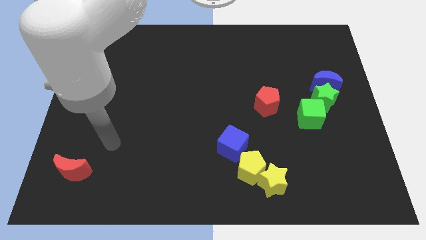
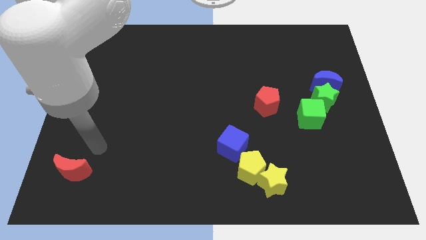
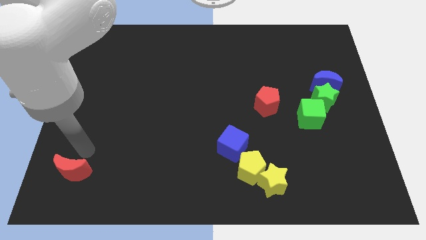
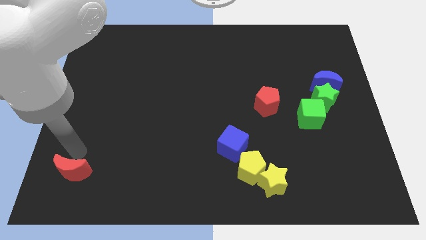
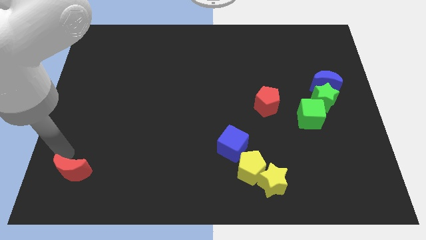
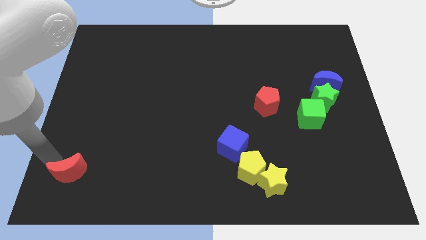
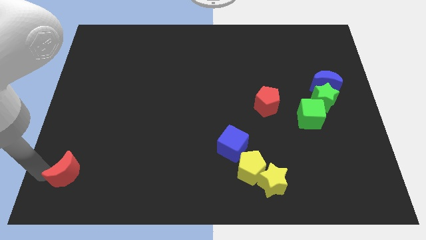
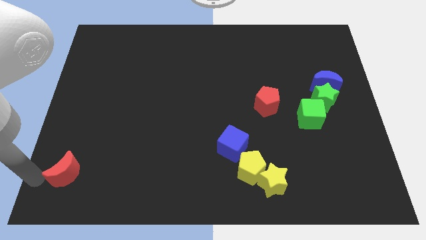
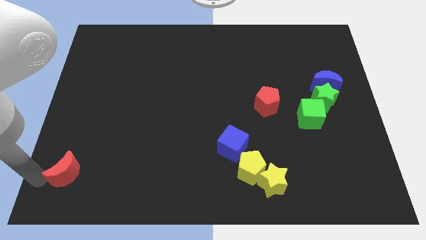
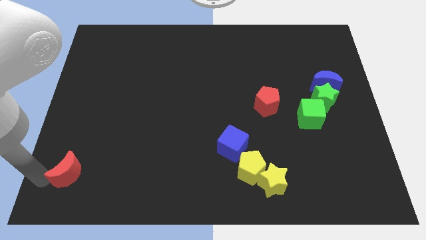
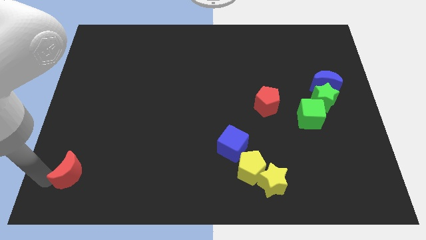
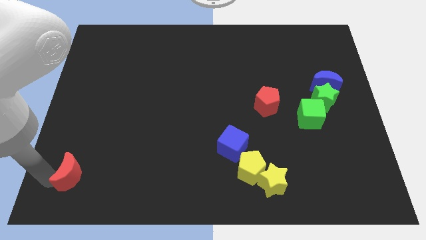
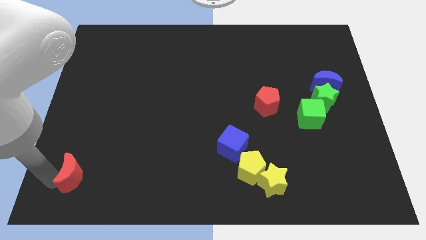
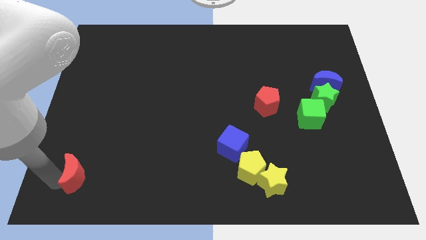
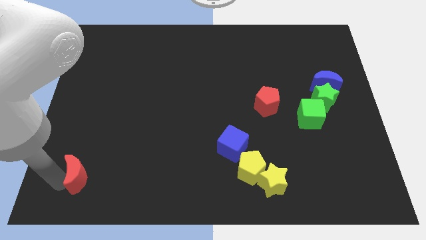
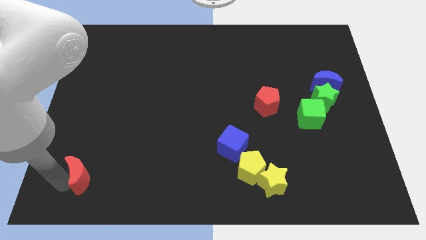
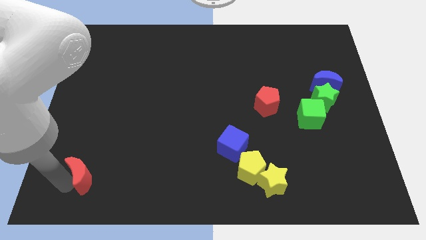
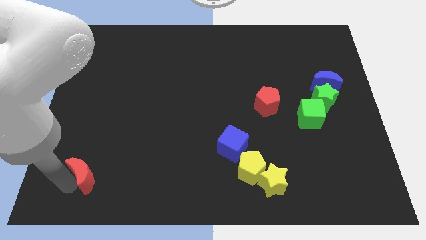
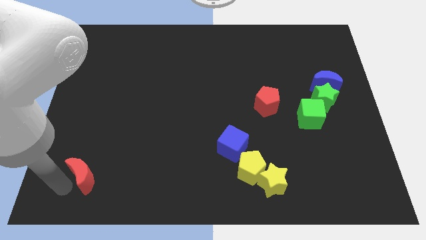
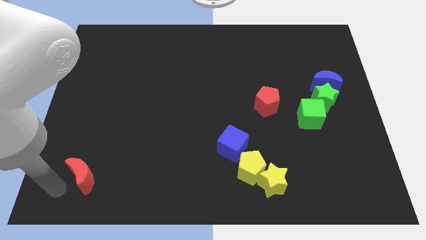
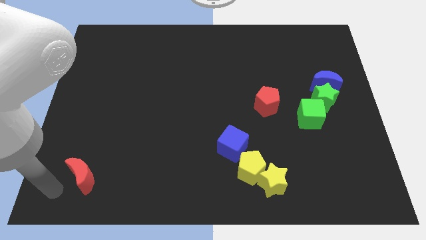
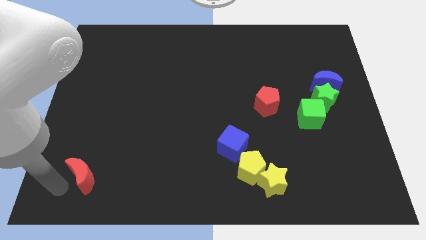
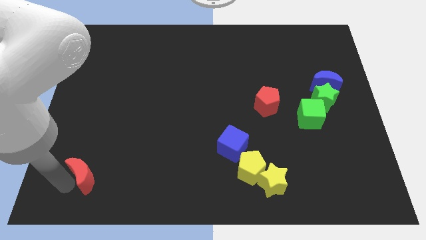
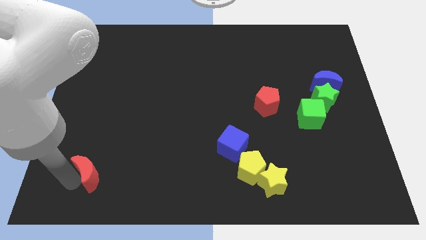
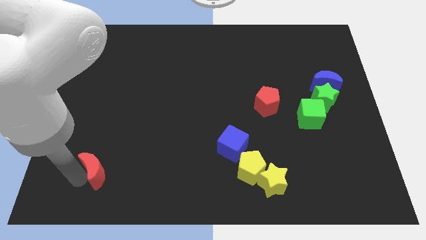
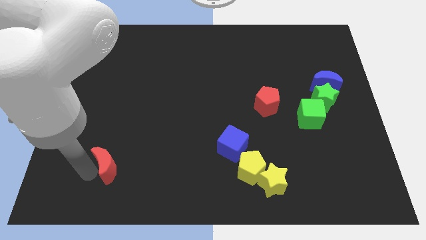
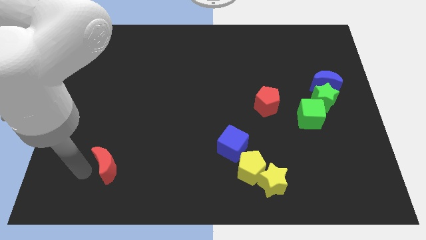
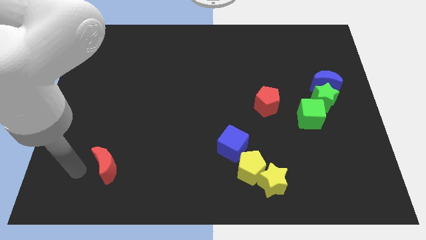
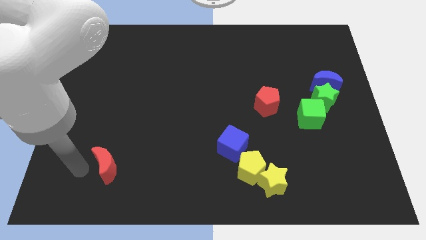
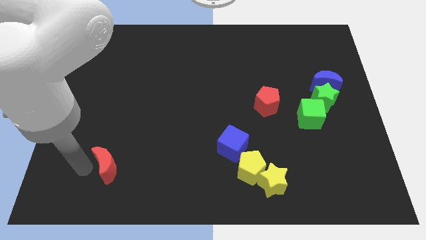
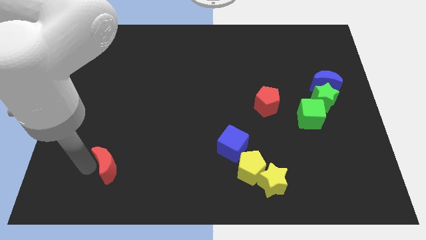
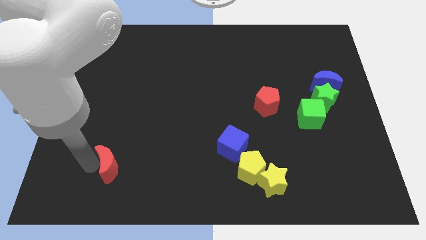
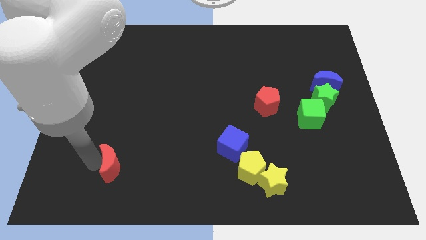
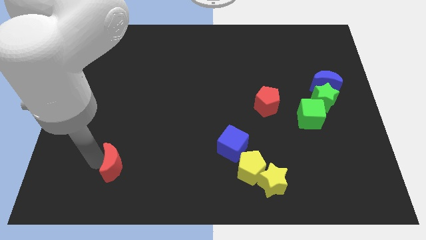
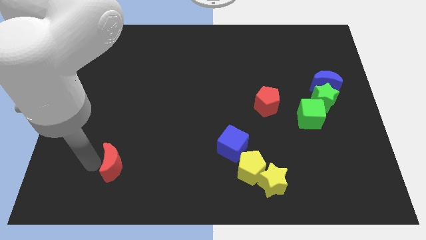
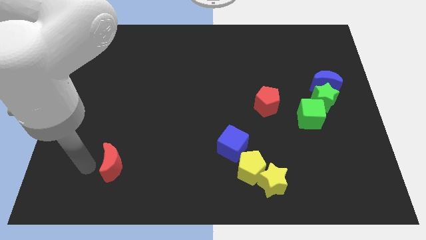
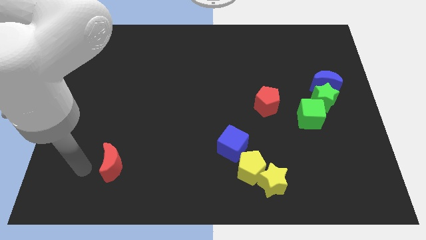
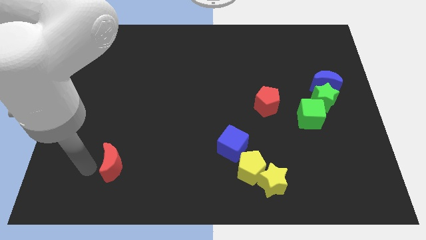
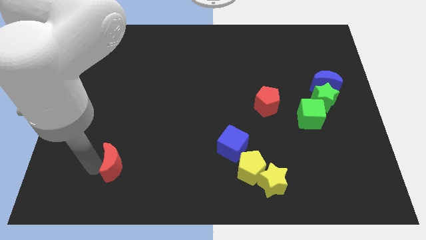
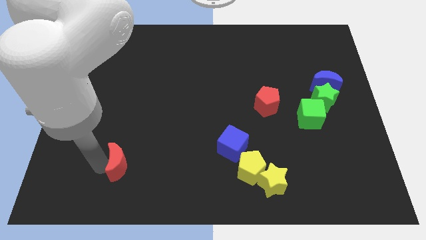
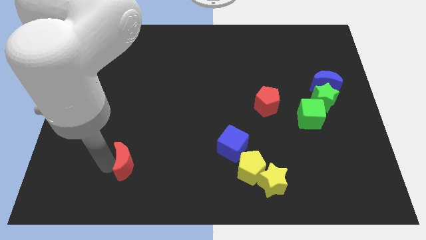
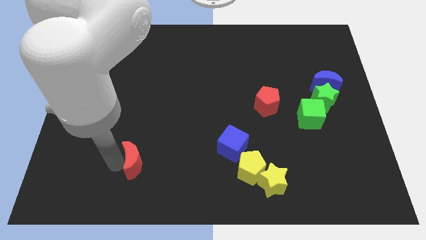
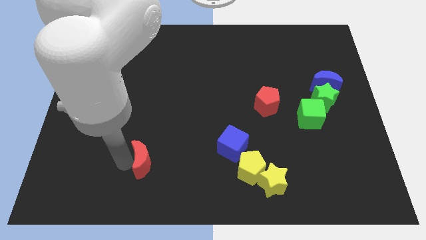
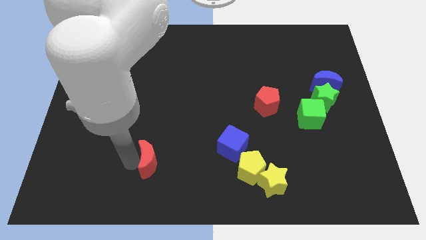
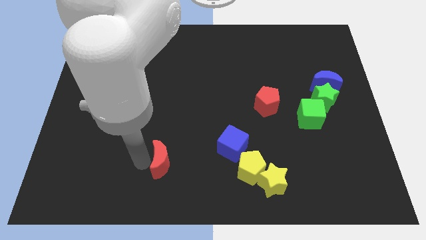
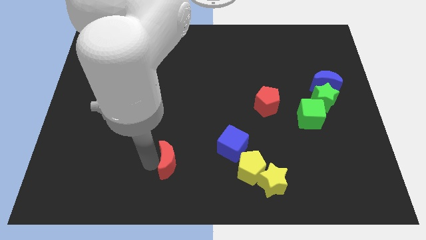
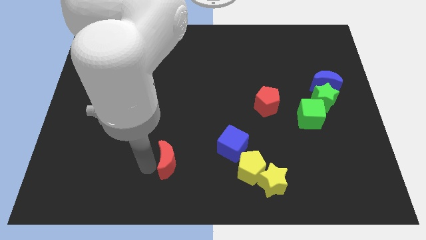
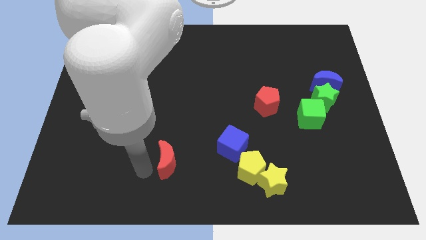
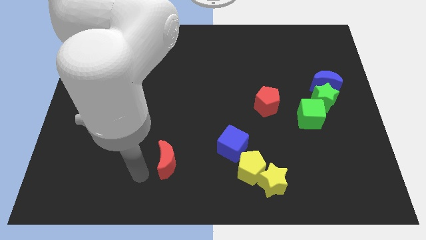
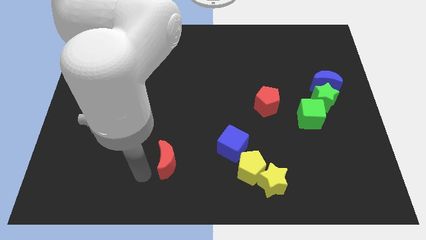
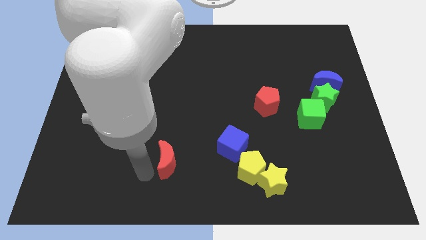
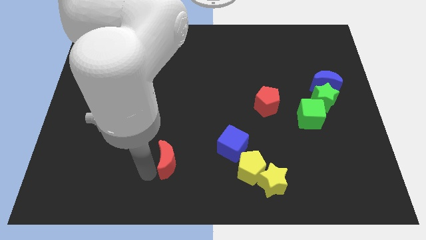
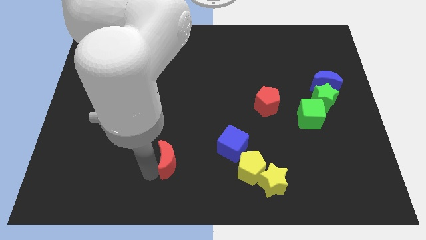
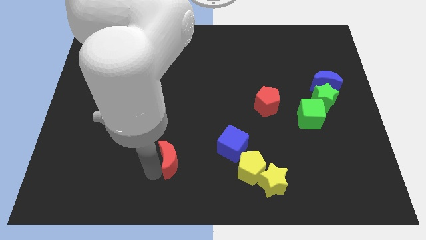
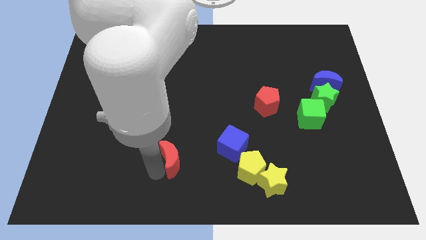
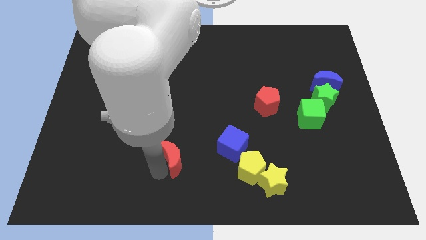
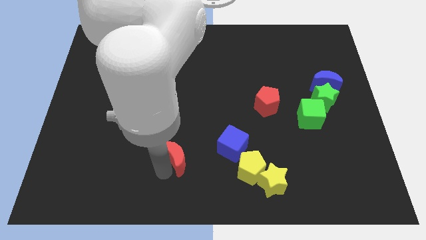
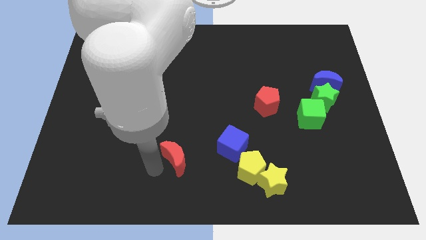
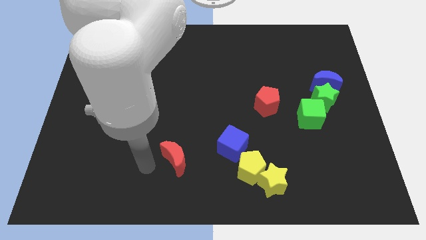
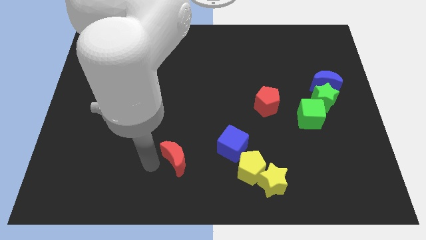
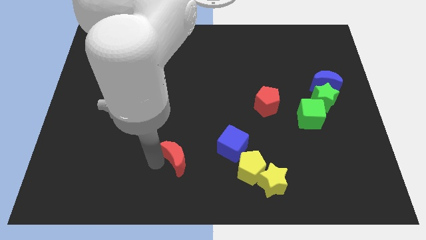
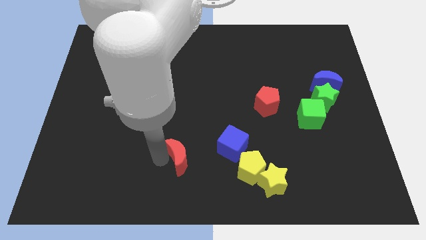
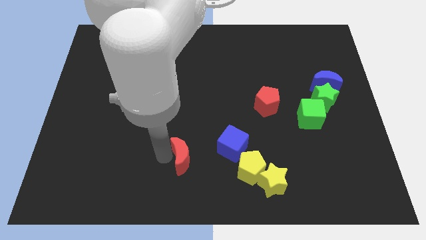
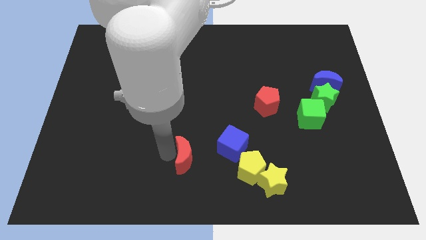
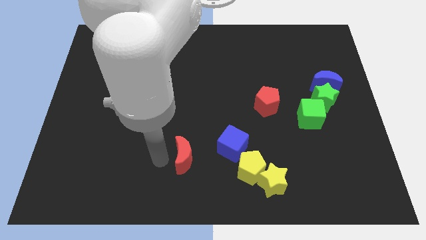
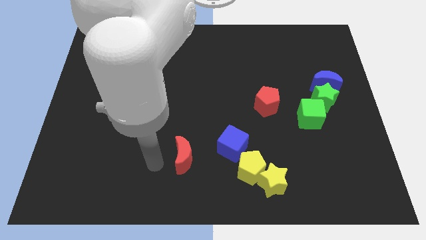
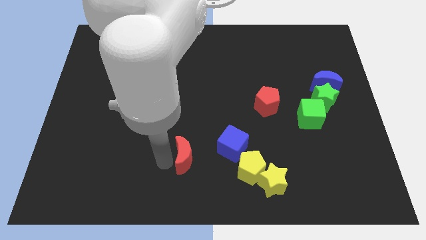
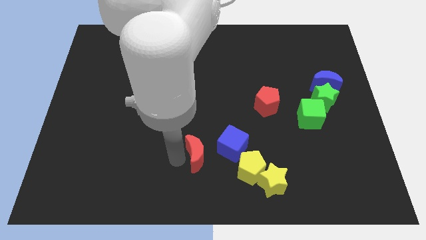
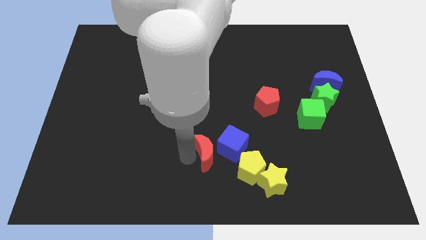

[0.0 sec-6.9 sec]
put the red moon next to the blue cube
